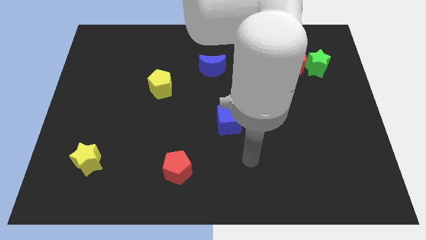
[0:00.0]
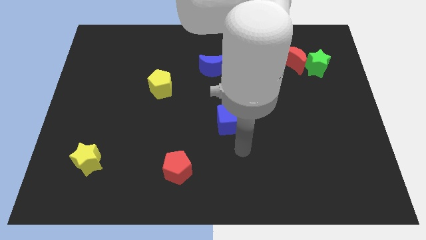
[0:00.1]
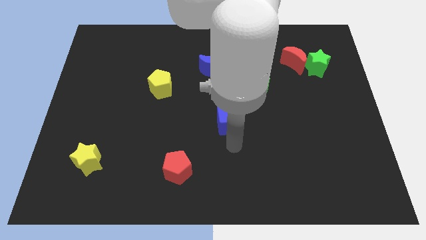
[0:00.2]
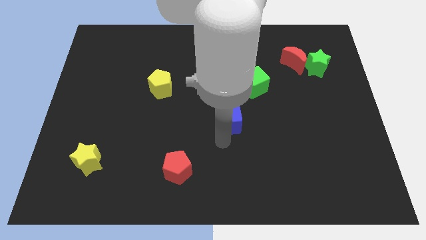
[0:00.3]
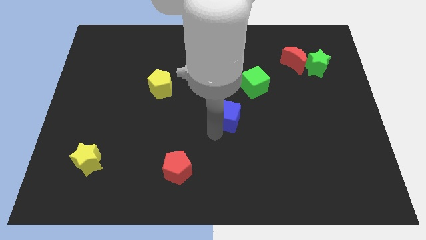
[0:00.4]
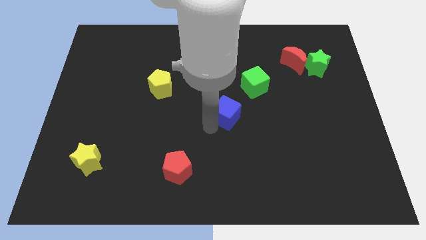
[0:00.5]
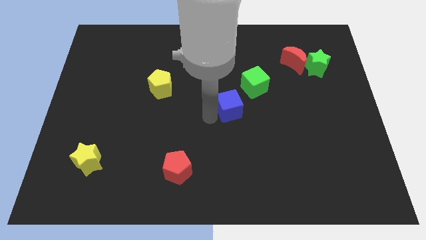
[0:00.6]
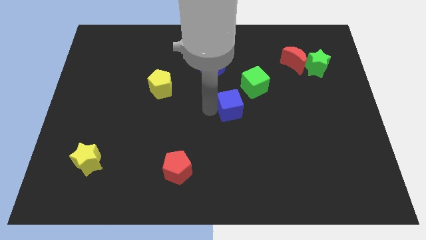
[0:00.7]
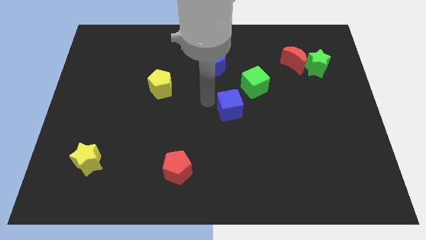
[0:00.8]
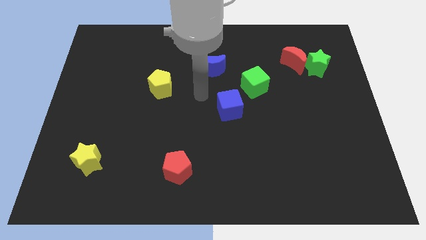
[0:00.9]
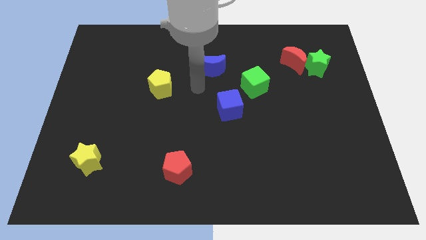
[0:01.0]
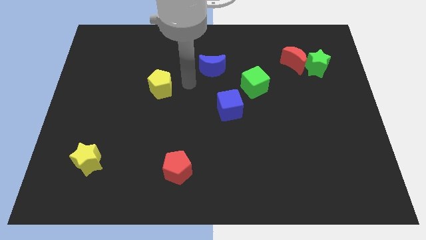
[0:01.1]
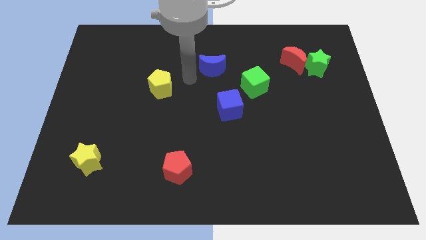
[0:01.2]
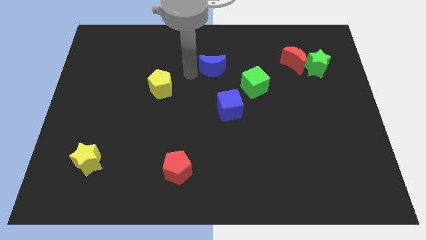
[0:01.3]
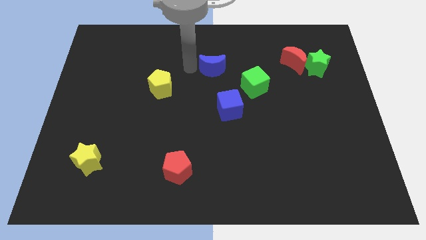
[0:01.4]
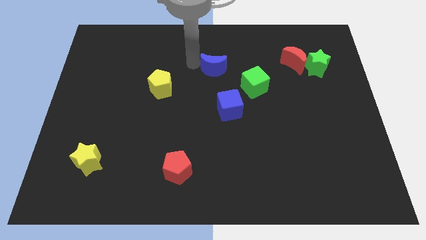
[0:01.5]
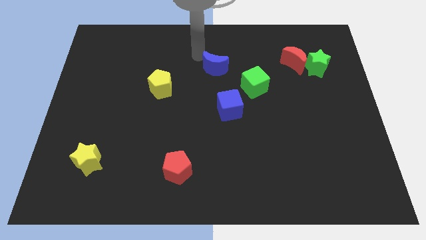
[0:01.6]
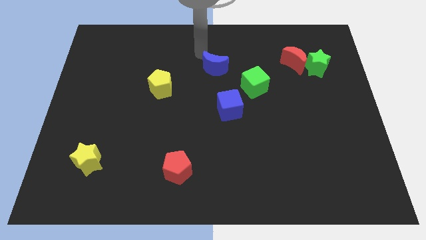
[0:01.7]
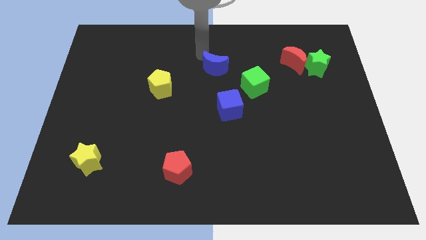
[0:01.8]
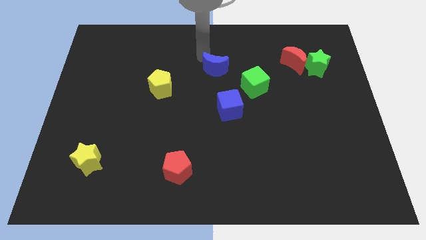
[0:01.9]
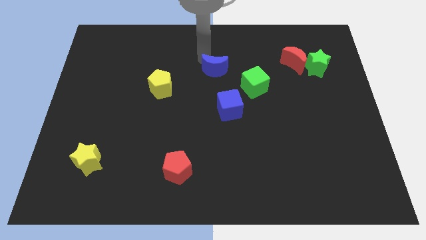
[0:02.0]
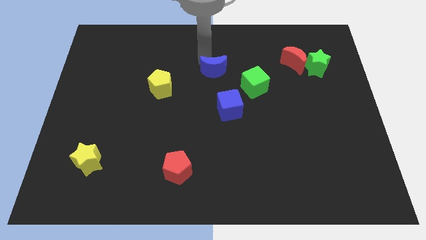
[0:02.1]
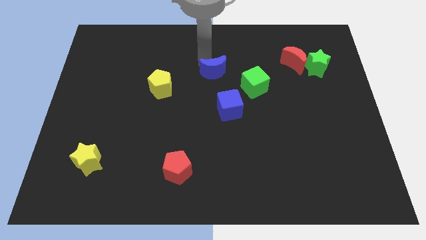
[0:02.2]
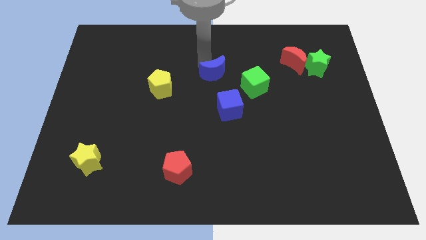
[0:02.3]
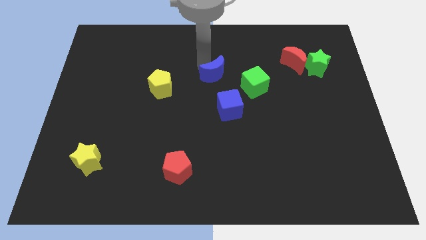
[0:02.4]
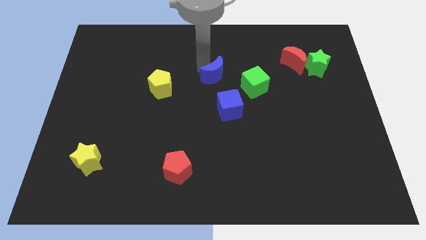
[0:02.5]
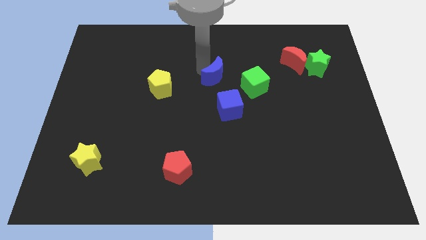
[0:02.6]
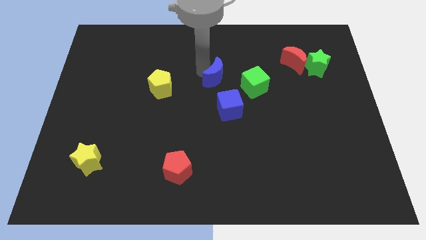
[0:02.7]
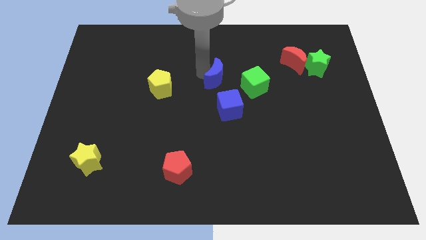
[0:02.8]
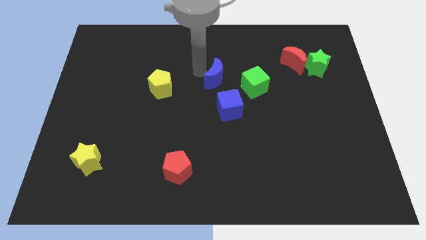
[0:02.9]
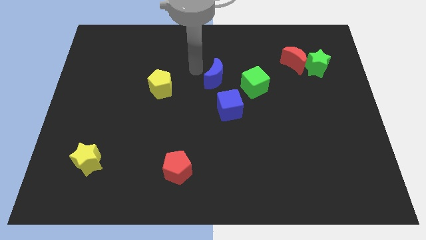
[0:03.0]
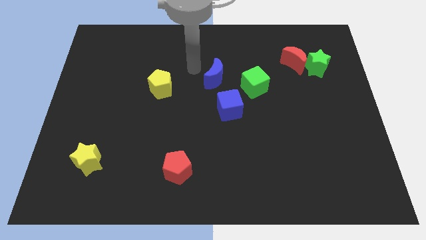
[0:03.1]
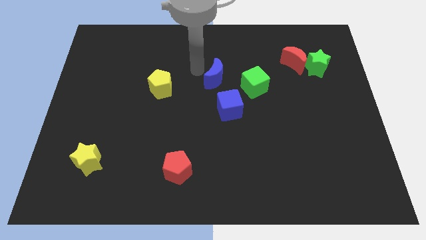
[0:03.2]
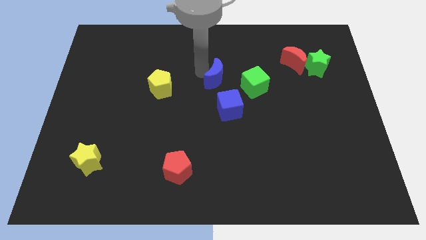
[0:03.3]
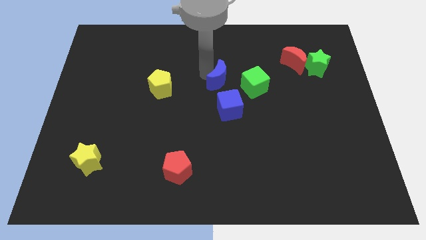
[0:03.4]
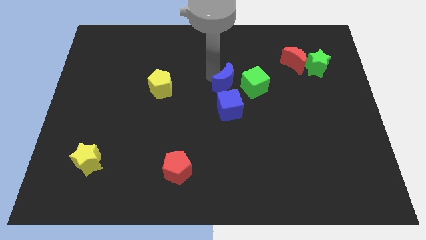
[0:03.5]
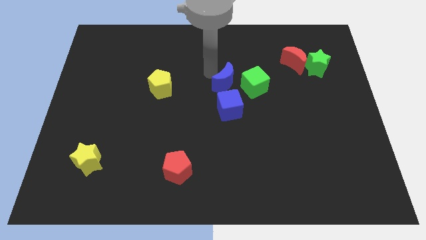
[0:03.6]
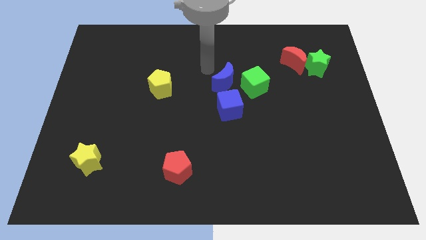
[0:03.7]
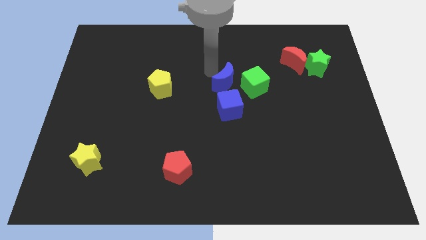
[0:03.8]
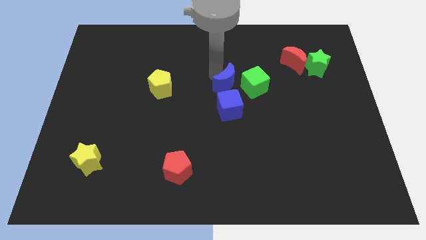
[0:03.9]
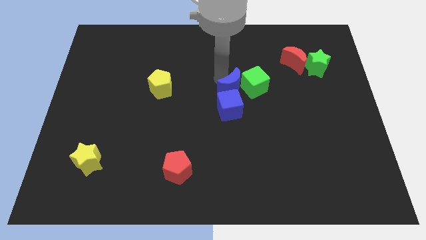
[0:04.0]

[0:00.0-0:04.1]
slide the blue moon slightly down and right diagonally

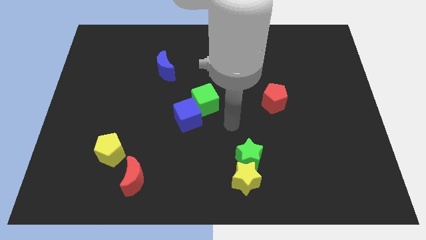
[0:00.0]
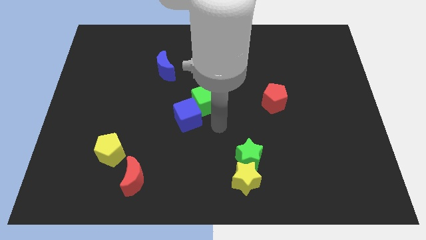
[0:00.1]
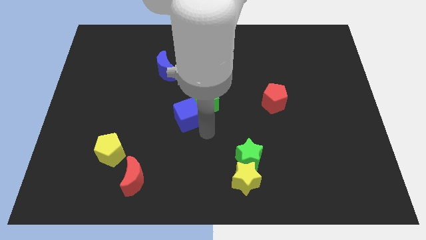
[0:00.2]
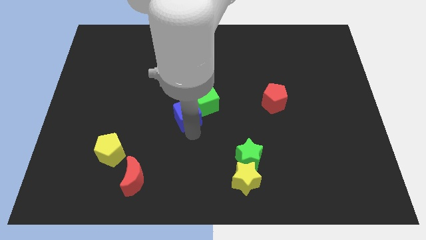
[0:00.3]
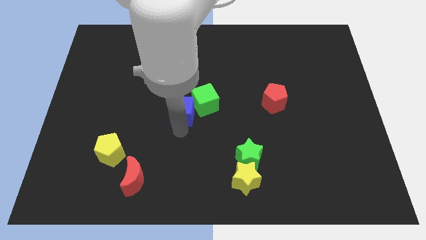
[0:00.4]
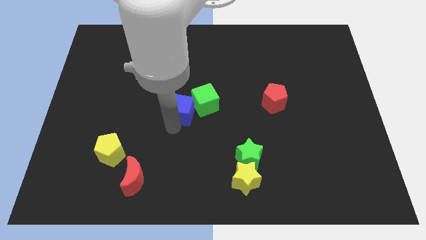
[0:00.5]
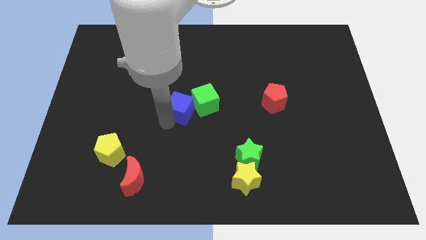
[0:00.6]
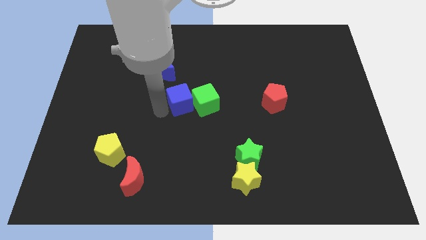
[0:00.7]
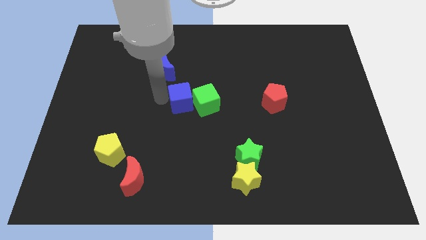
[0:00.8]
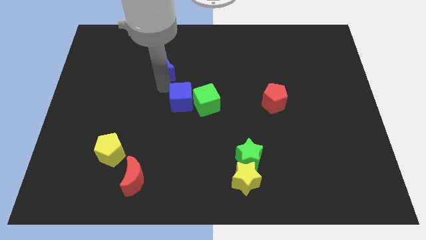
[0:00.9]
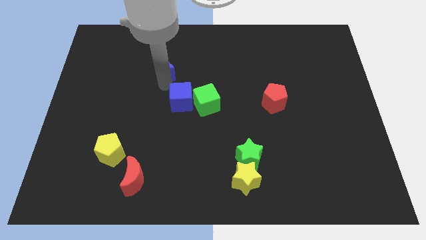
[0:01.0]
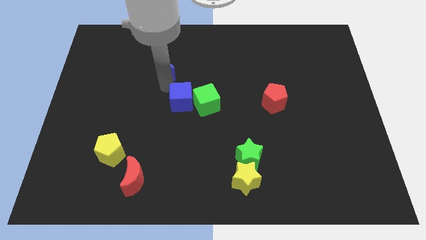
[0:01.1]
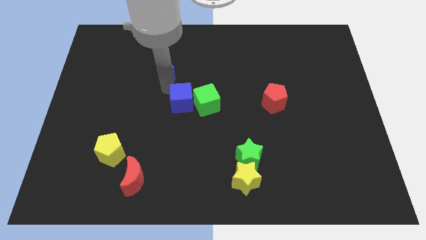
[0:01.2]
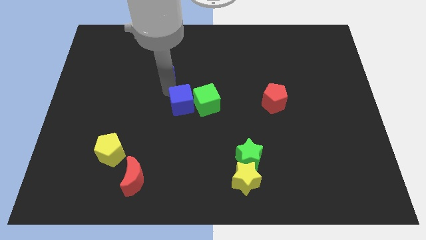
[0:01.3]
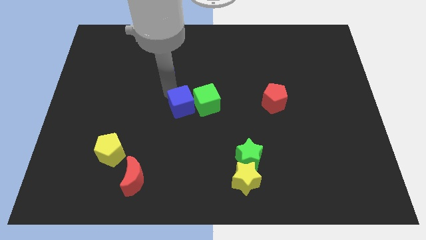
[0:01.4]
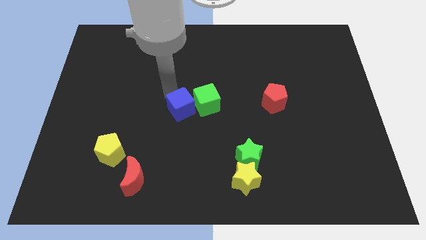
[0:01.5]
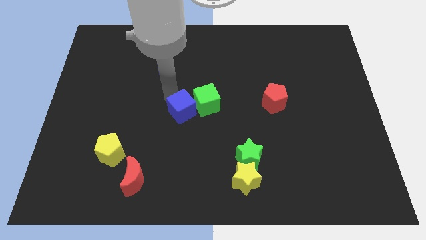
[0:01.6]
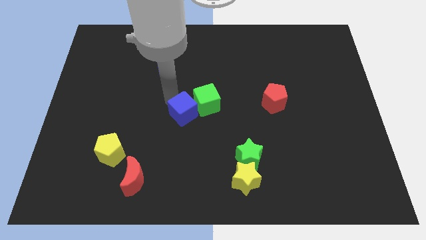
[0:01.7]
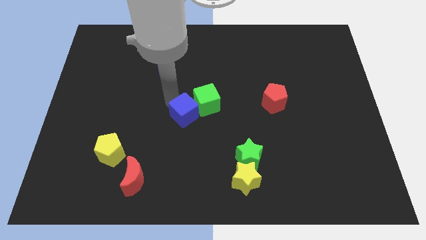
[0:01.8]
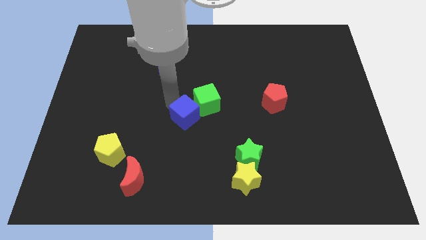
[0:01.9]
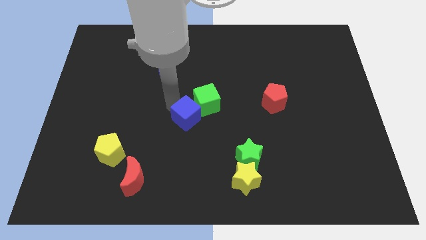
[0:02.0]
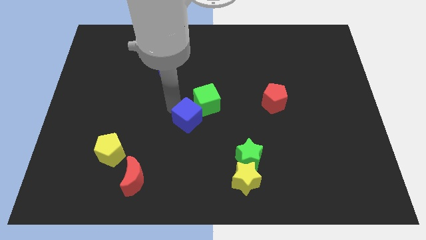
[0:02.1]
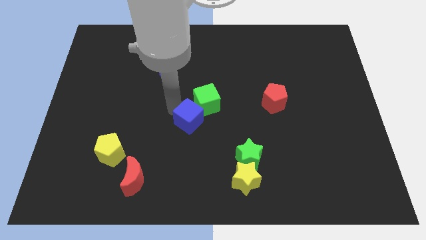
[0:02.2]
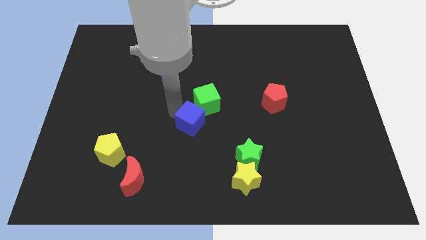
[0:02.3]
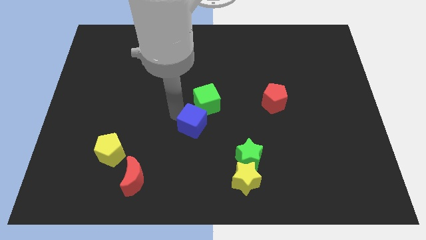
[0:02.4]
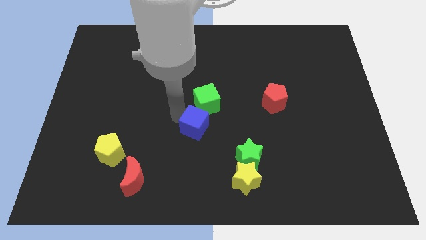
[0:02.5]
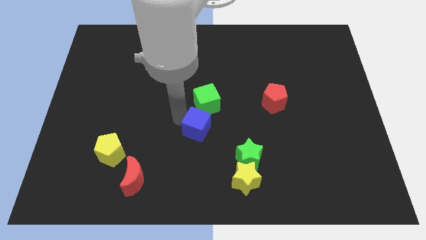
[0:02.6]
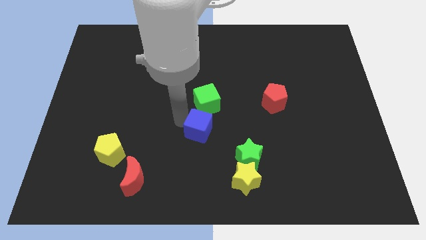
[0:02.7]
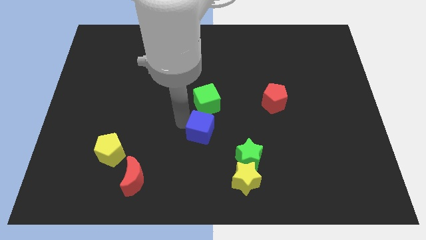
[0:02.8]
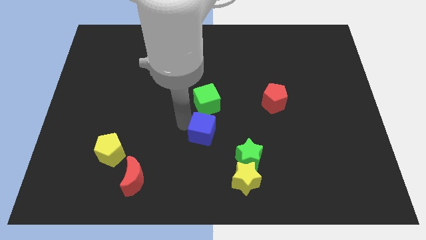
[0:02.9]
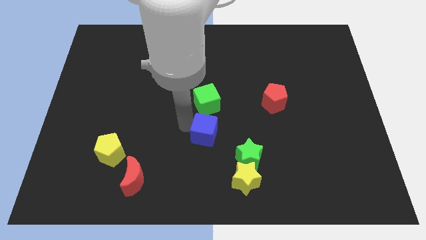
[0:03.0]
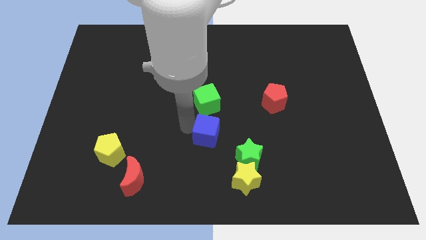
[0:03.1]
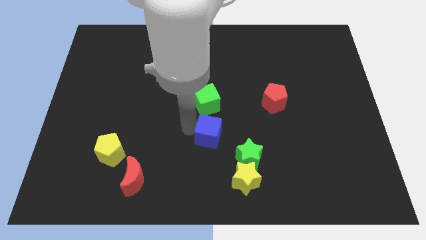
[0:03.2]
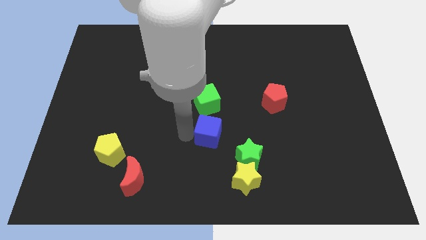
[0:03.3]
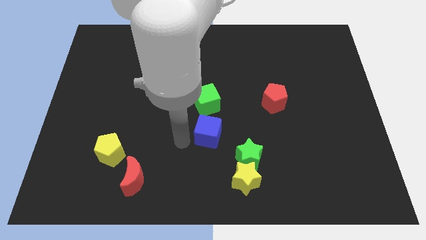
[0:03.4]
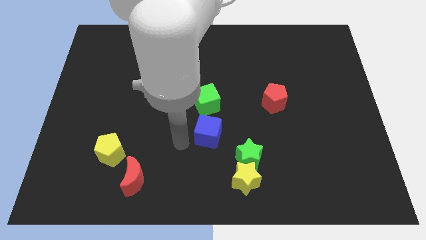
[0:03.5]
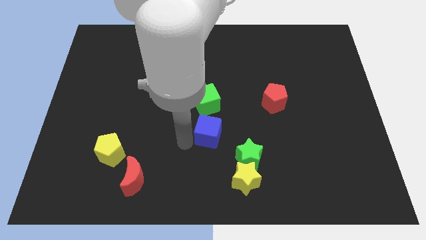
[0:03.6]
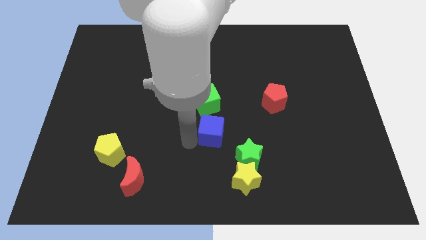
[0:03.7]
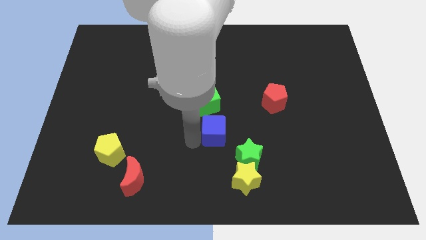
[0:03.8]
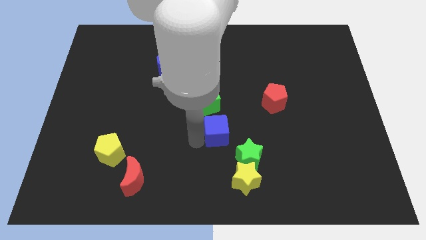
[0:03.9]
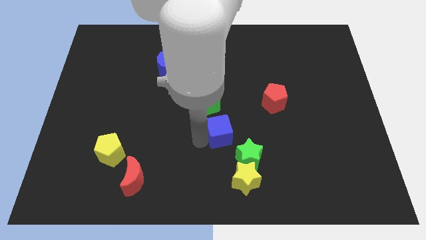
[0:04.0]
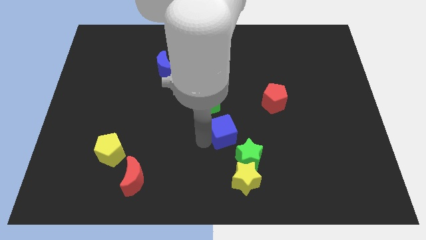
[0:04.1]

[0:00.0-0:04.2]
slide the blue cube slightly to the right
